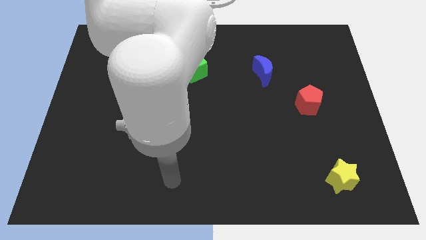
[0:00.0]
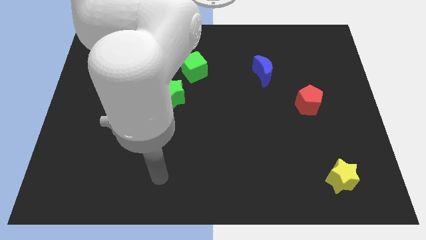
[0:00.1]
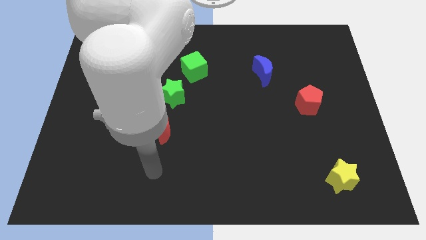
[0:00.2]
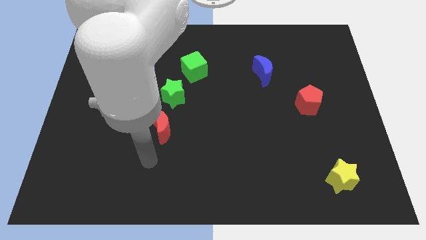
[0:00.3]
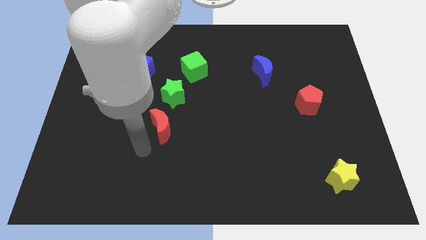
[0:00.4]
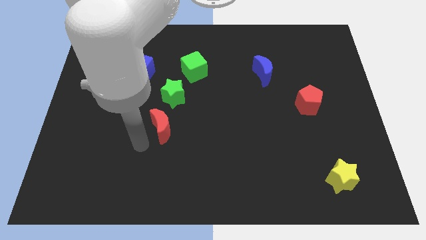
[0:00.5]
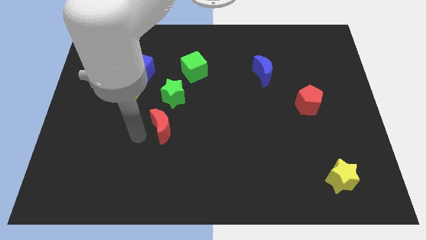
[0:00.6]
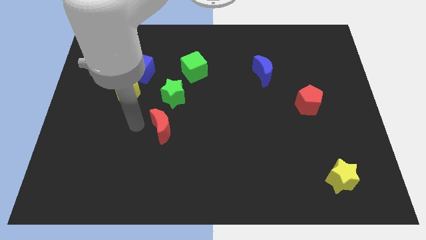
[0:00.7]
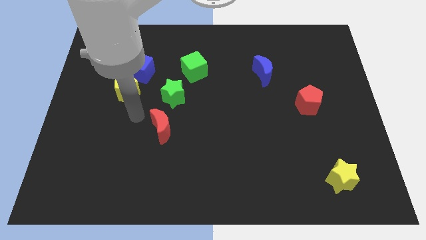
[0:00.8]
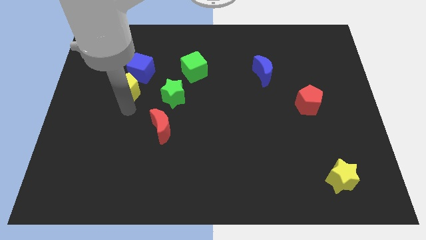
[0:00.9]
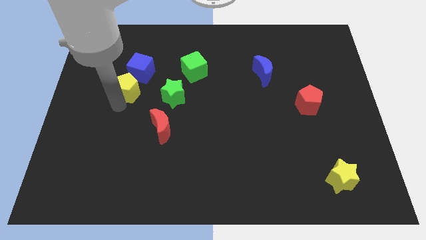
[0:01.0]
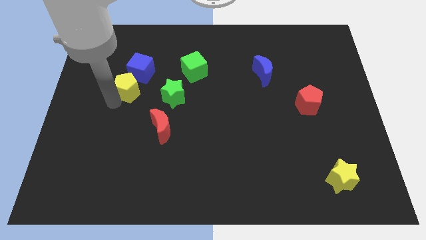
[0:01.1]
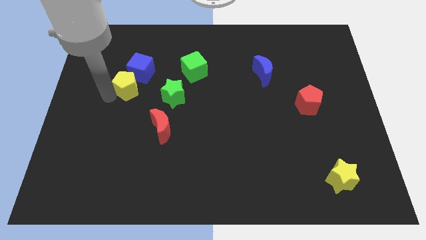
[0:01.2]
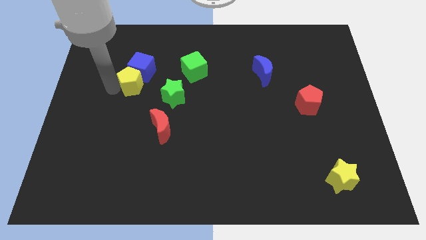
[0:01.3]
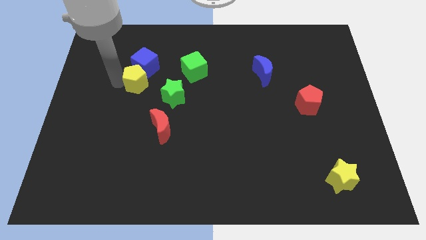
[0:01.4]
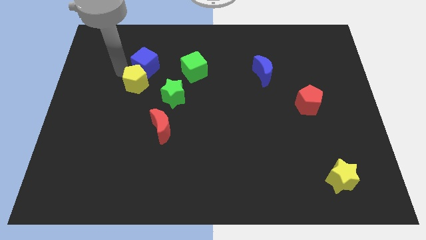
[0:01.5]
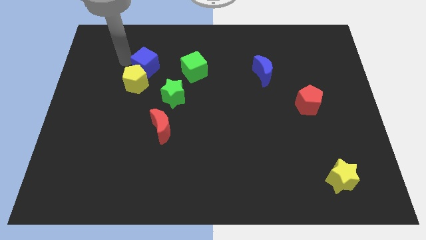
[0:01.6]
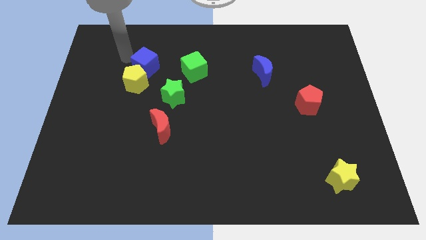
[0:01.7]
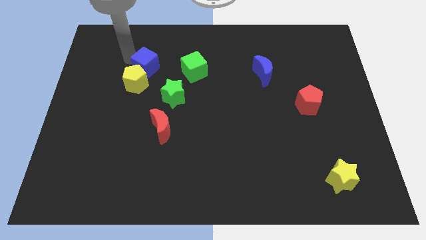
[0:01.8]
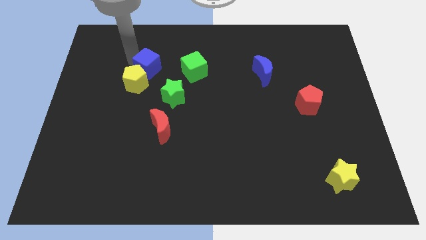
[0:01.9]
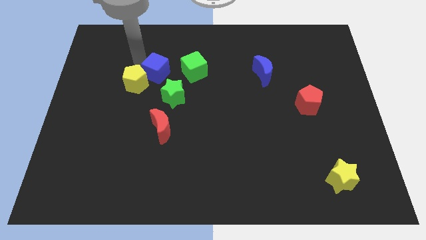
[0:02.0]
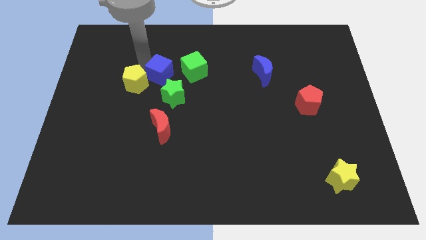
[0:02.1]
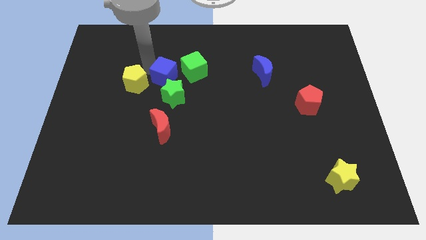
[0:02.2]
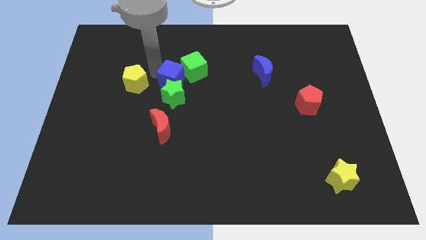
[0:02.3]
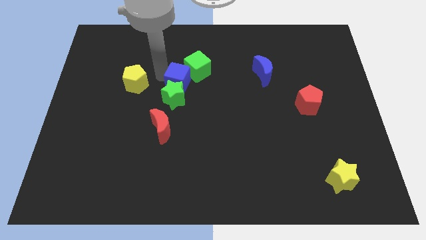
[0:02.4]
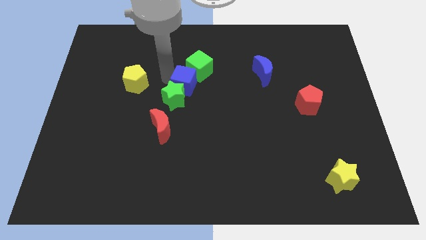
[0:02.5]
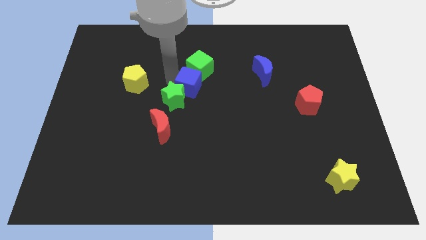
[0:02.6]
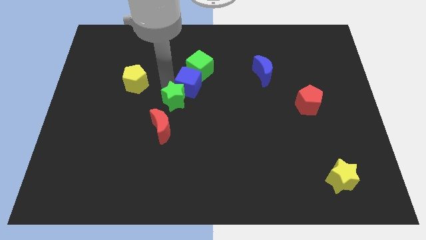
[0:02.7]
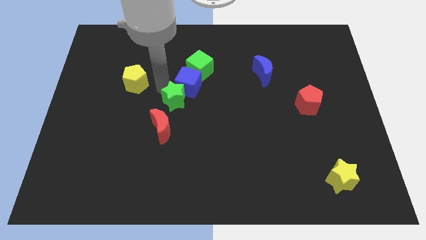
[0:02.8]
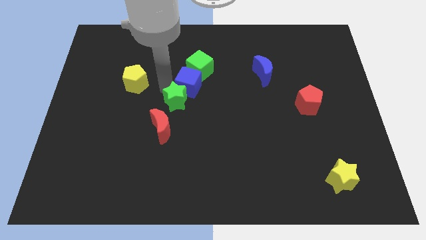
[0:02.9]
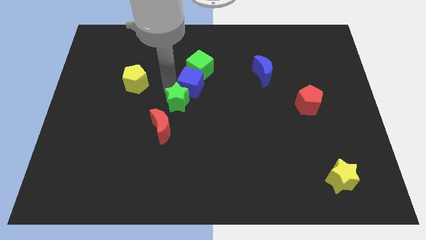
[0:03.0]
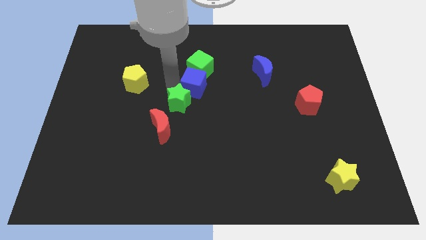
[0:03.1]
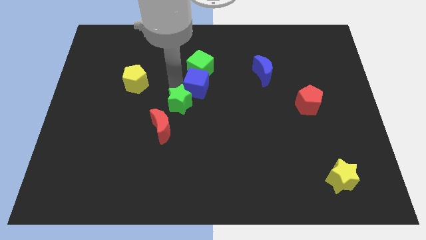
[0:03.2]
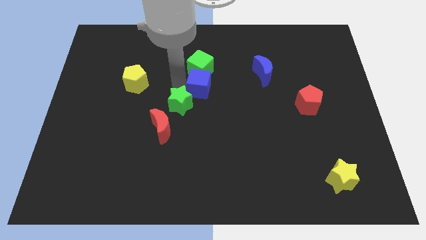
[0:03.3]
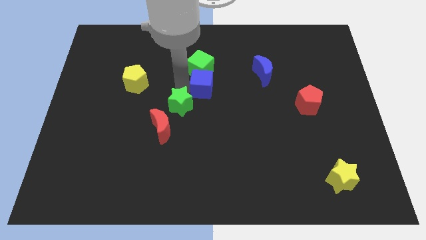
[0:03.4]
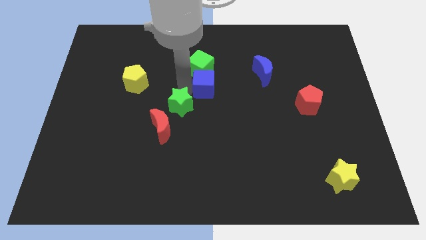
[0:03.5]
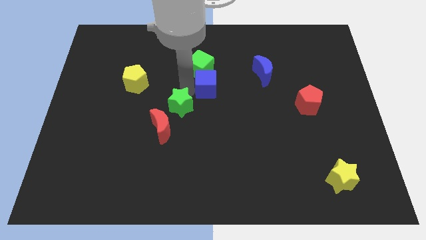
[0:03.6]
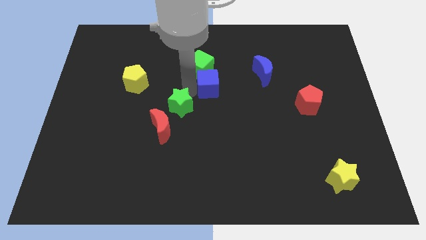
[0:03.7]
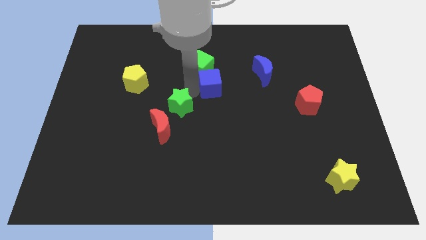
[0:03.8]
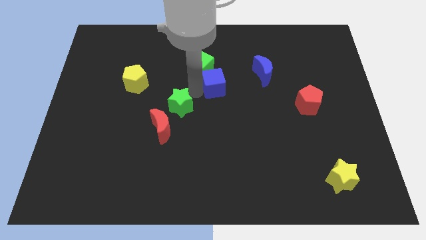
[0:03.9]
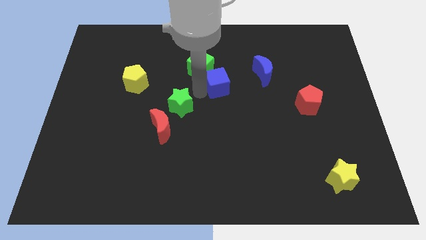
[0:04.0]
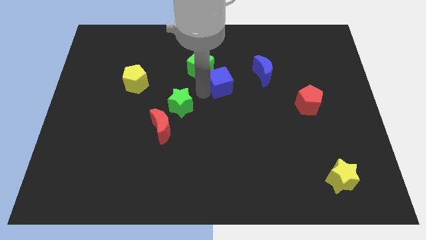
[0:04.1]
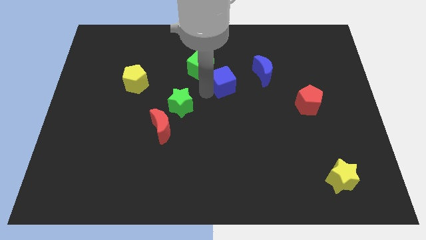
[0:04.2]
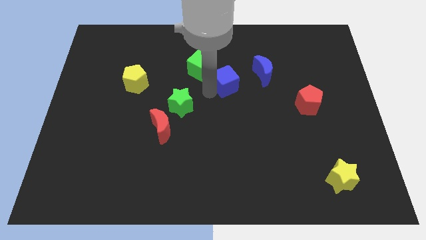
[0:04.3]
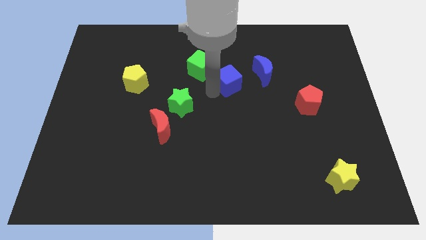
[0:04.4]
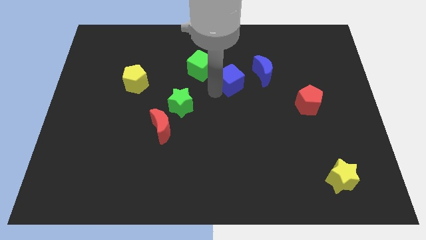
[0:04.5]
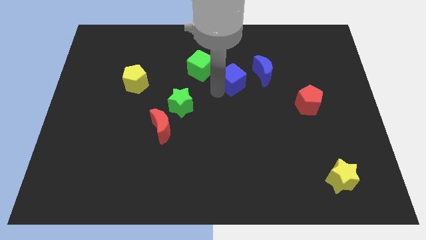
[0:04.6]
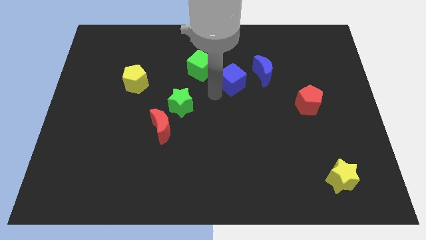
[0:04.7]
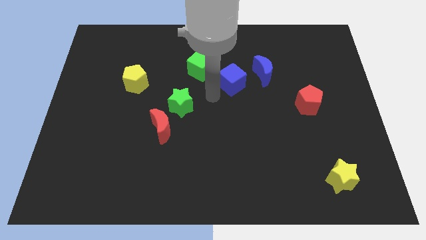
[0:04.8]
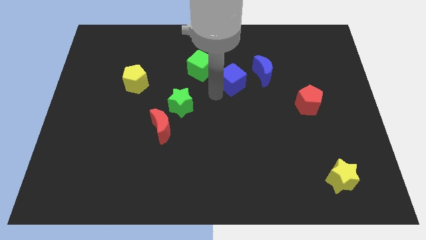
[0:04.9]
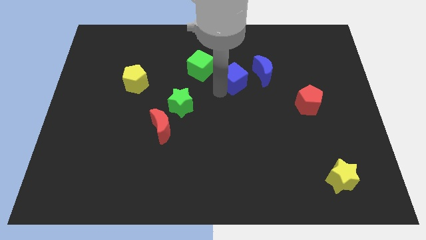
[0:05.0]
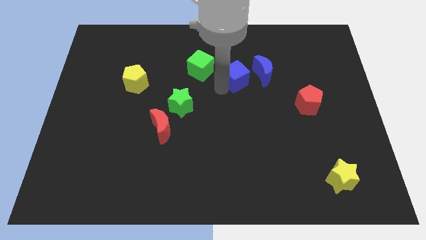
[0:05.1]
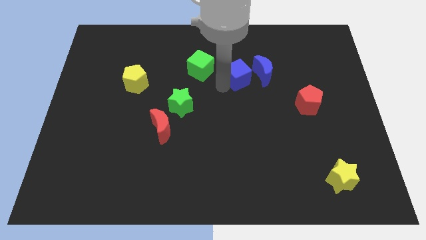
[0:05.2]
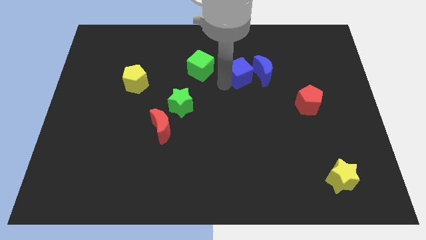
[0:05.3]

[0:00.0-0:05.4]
put the blue cube towards the blue moon

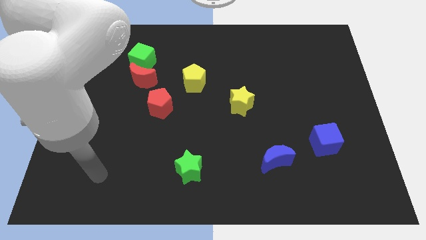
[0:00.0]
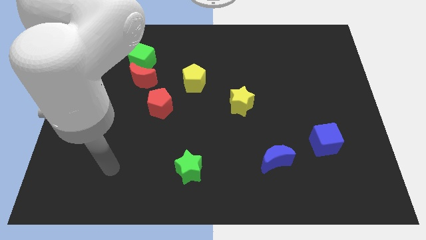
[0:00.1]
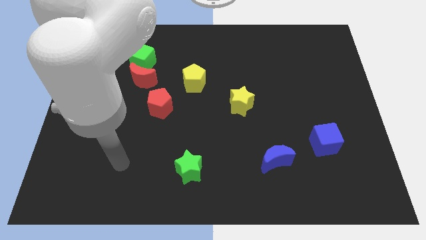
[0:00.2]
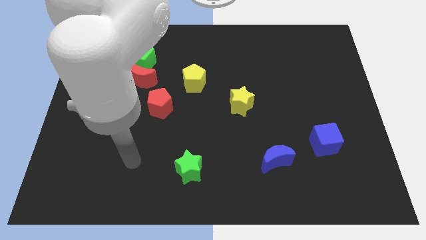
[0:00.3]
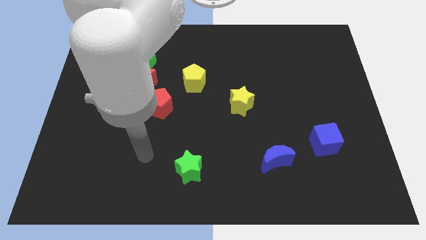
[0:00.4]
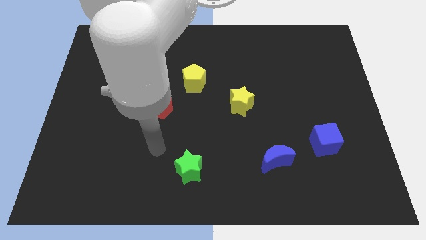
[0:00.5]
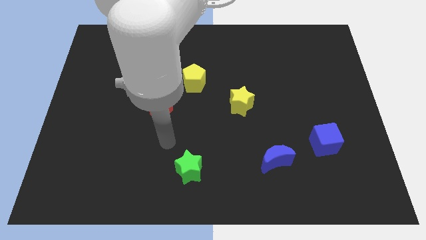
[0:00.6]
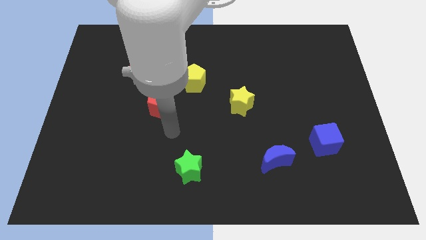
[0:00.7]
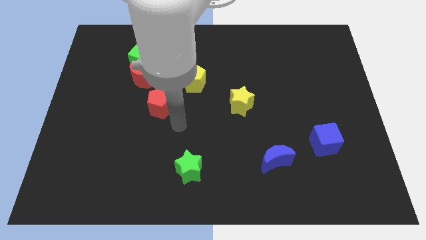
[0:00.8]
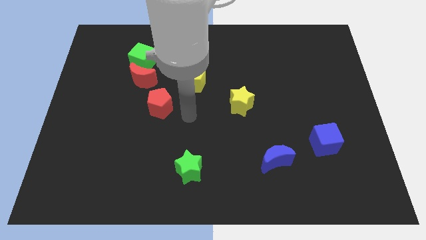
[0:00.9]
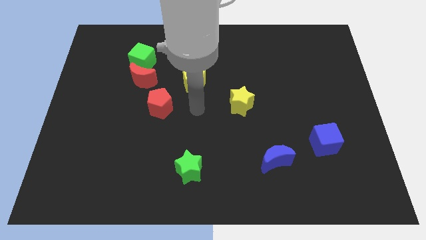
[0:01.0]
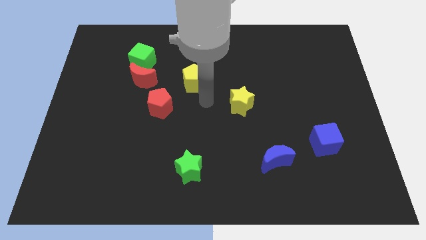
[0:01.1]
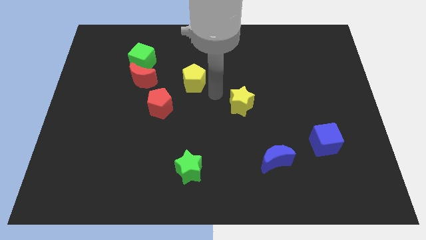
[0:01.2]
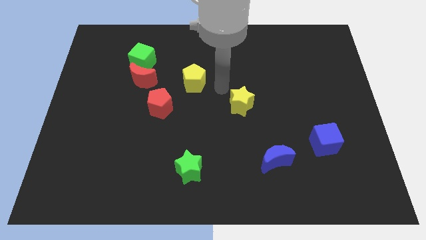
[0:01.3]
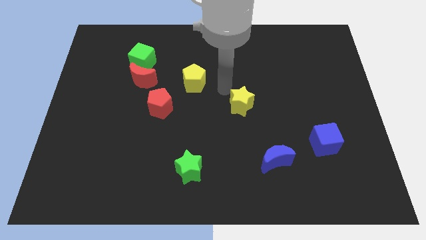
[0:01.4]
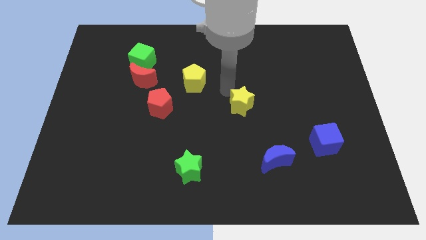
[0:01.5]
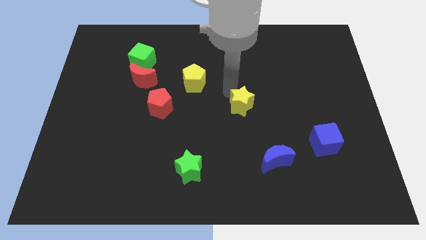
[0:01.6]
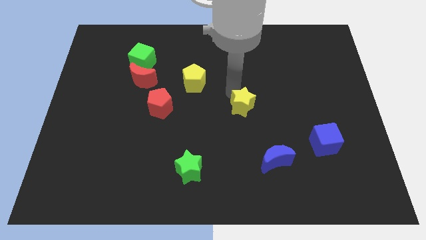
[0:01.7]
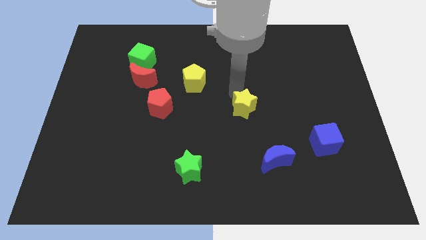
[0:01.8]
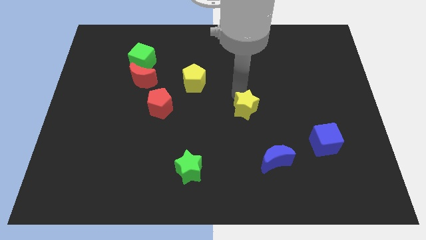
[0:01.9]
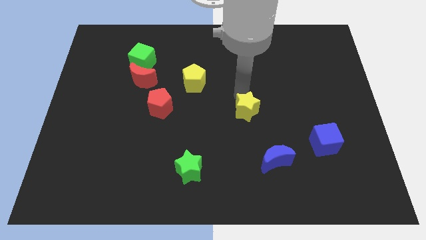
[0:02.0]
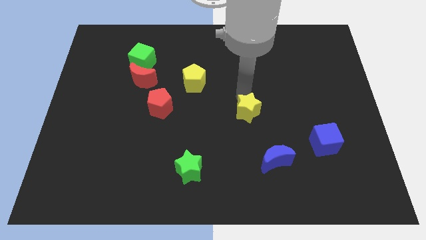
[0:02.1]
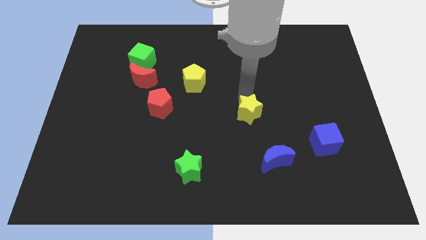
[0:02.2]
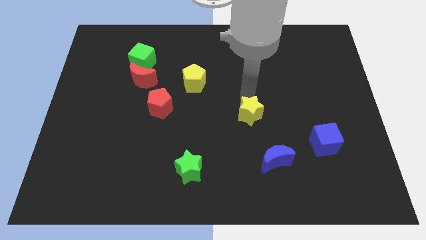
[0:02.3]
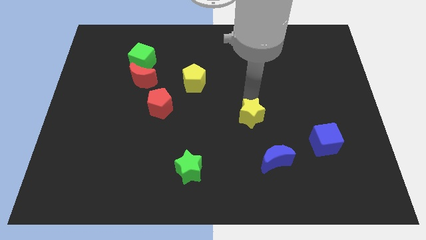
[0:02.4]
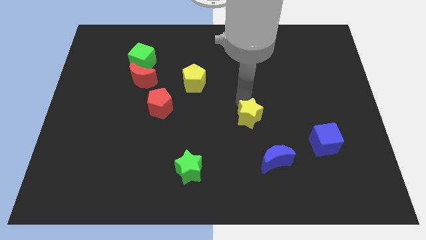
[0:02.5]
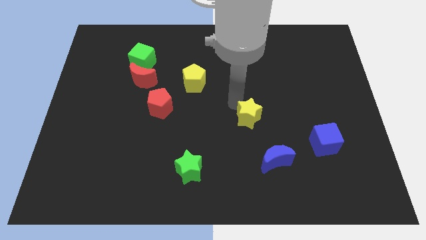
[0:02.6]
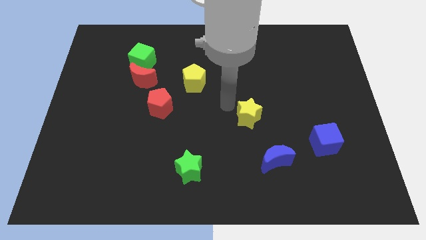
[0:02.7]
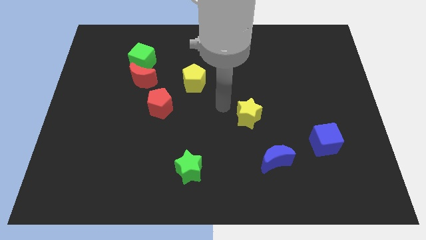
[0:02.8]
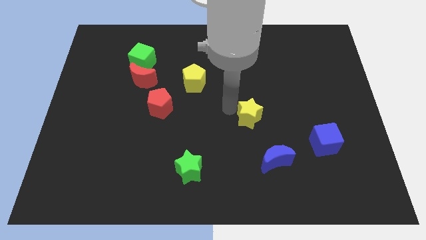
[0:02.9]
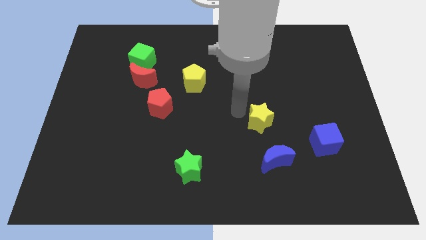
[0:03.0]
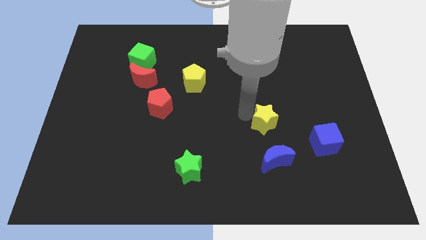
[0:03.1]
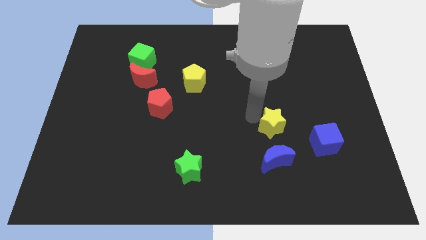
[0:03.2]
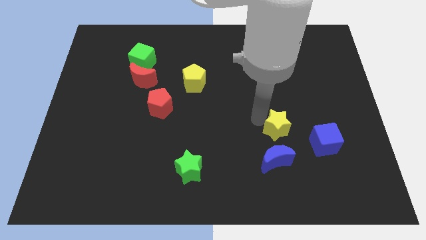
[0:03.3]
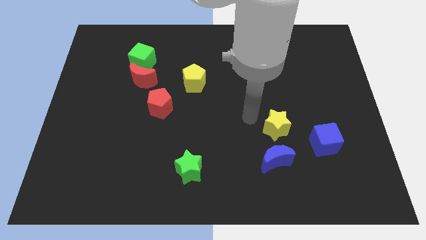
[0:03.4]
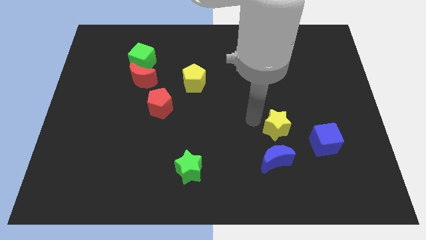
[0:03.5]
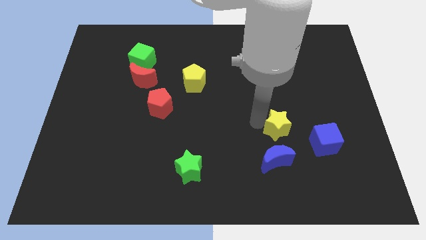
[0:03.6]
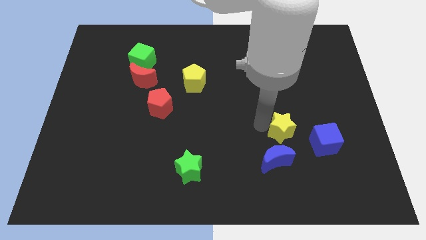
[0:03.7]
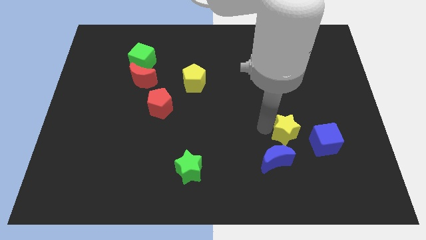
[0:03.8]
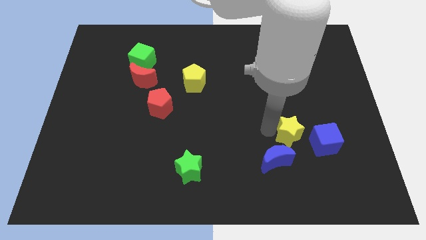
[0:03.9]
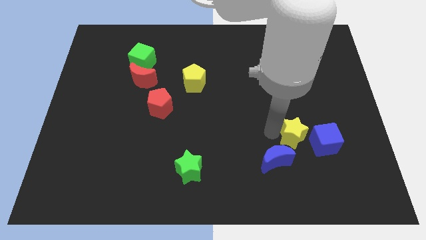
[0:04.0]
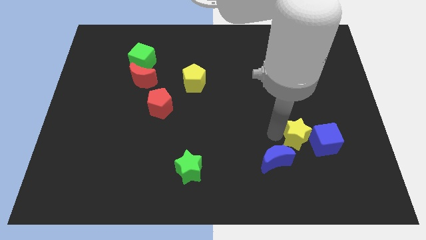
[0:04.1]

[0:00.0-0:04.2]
move the yellow star next to the blue cube
